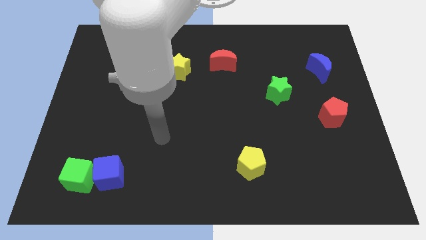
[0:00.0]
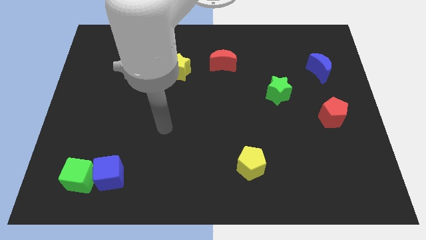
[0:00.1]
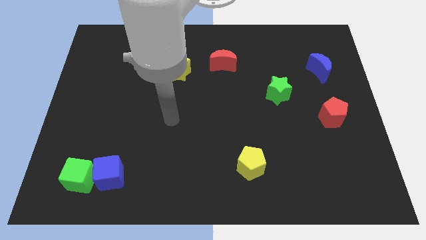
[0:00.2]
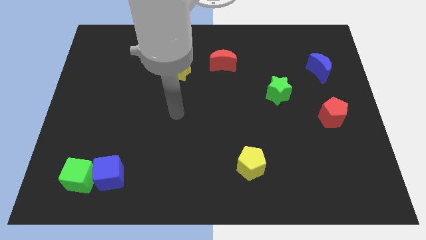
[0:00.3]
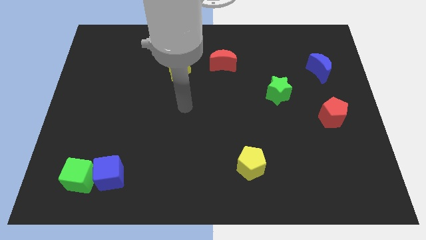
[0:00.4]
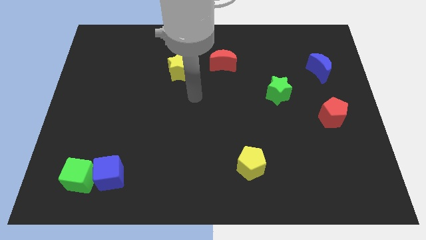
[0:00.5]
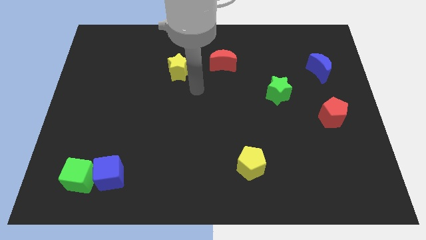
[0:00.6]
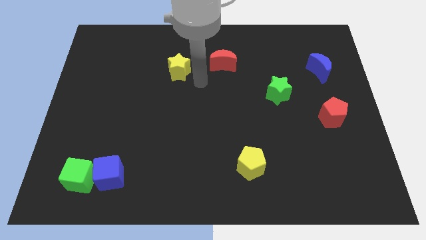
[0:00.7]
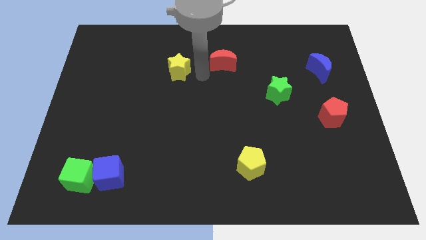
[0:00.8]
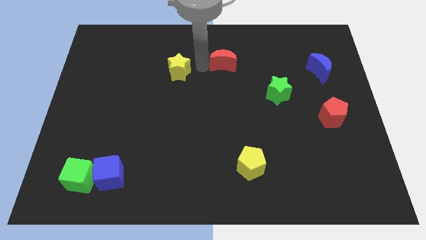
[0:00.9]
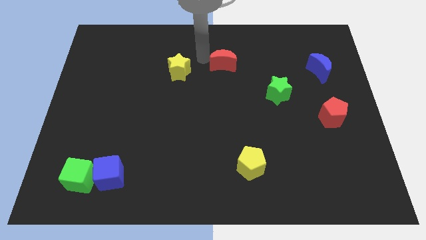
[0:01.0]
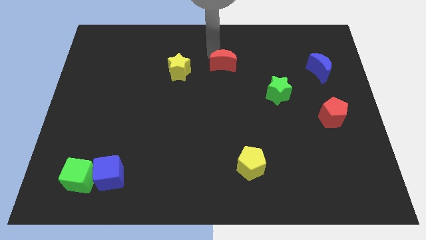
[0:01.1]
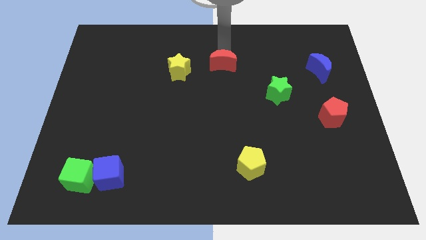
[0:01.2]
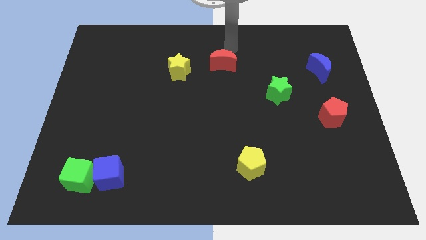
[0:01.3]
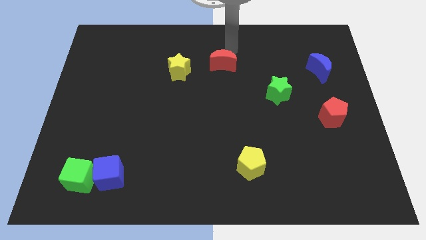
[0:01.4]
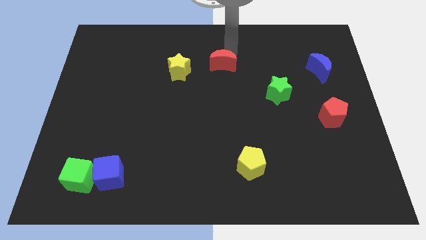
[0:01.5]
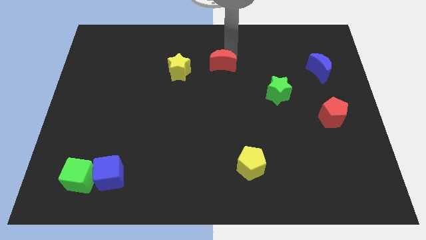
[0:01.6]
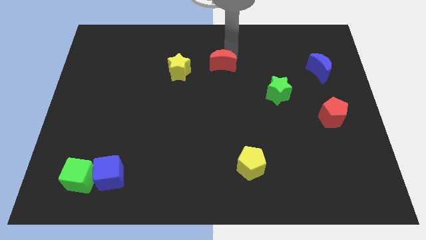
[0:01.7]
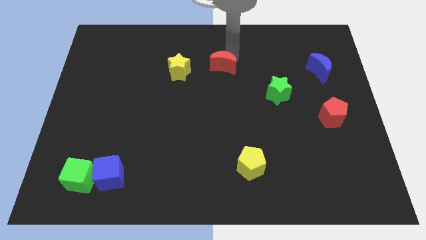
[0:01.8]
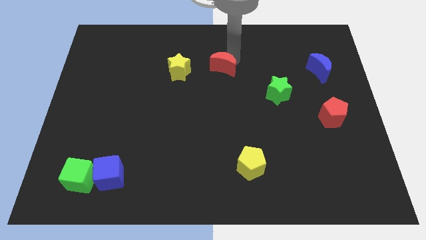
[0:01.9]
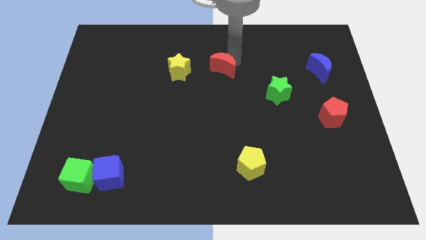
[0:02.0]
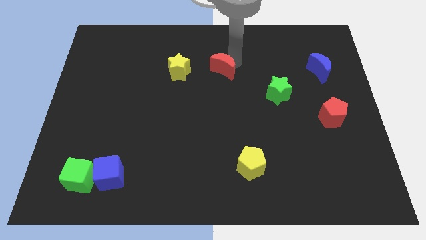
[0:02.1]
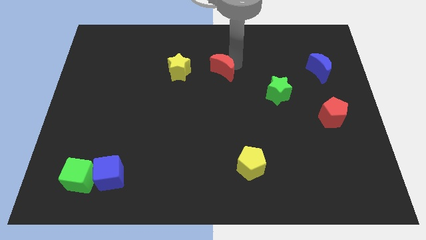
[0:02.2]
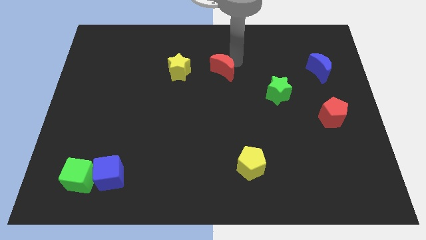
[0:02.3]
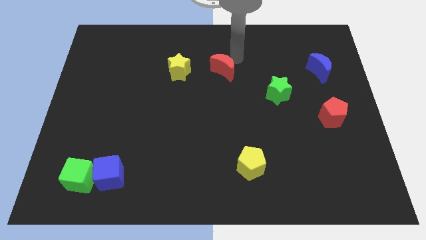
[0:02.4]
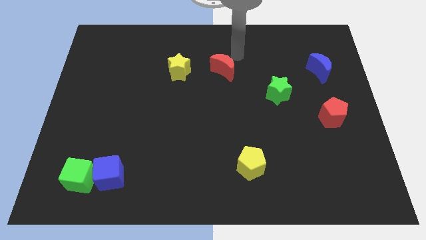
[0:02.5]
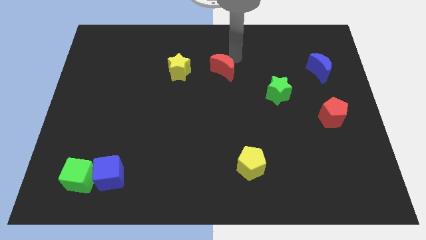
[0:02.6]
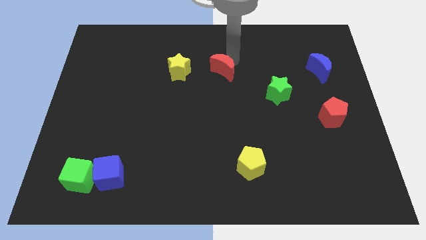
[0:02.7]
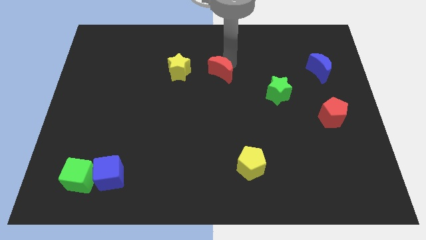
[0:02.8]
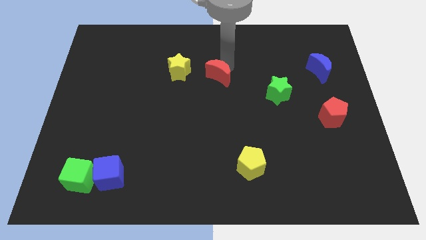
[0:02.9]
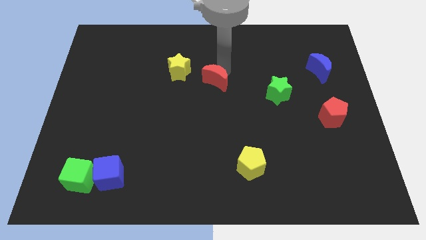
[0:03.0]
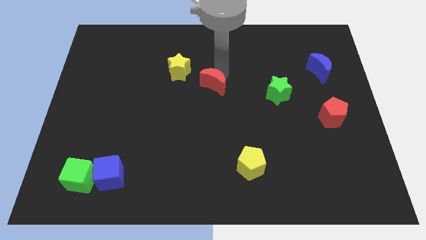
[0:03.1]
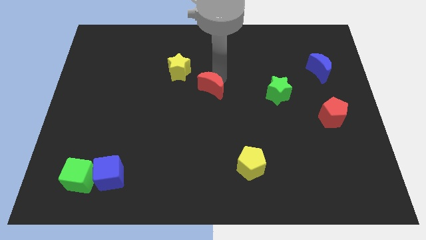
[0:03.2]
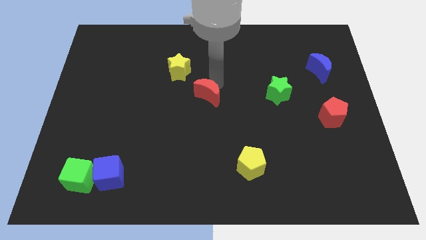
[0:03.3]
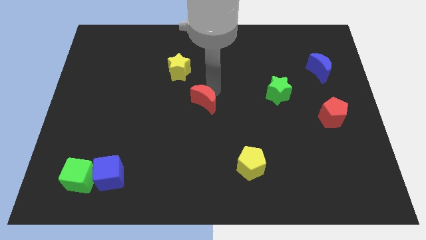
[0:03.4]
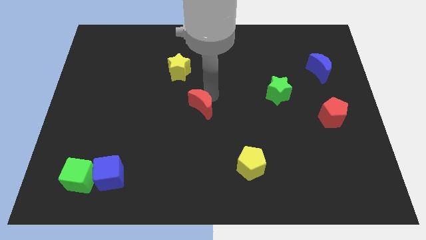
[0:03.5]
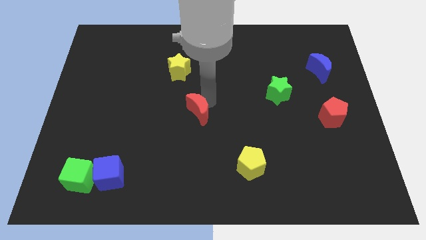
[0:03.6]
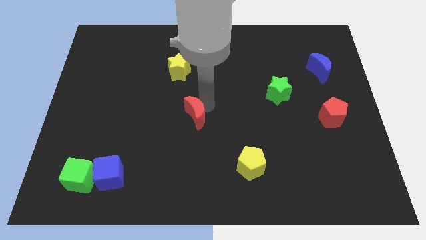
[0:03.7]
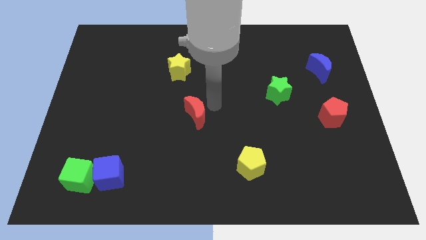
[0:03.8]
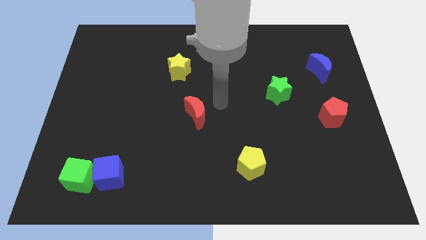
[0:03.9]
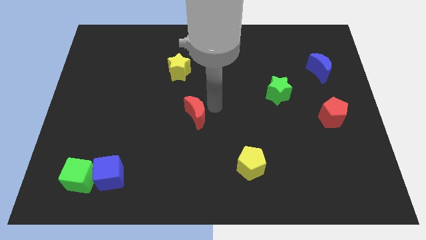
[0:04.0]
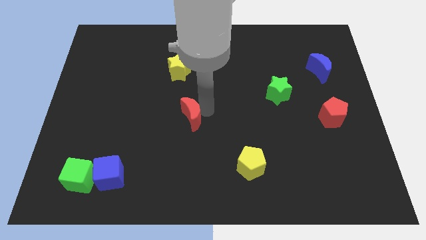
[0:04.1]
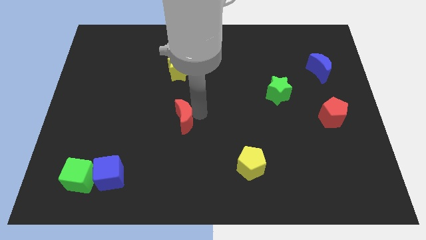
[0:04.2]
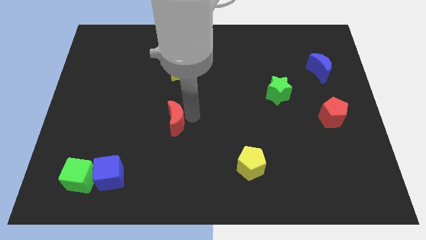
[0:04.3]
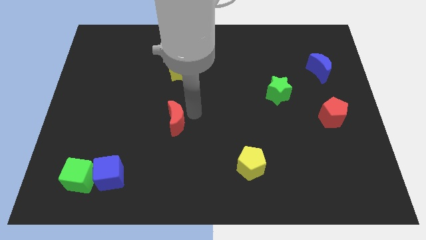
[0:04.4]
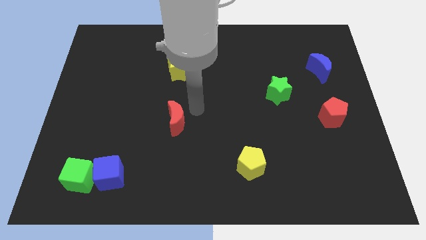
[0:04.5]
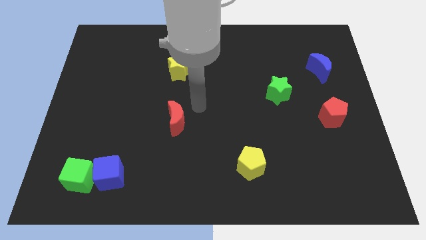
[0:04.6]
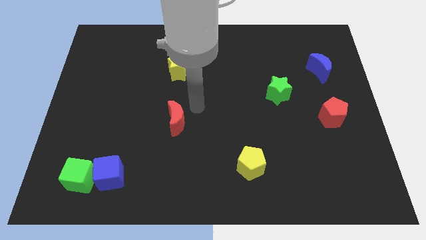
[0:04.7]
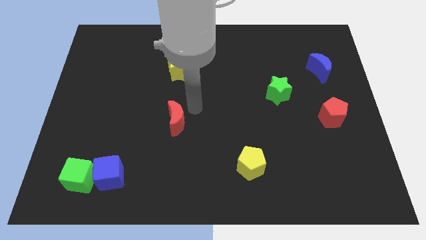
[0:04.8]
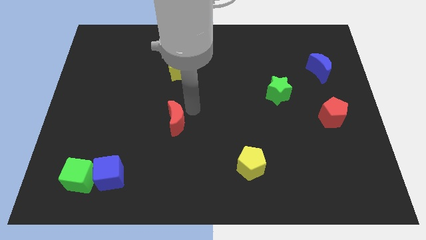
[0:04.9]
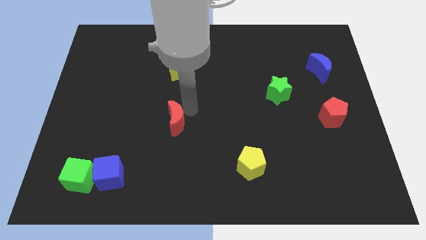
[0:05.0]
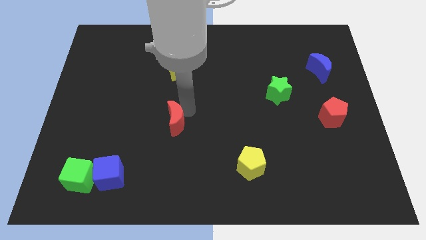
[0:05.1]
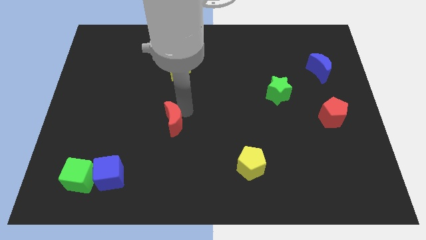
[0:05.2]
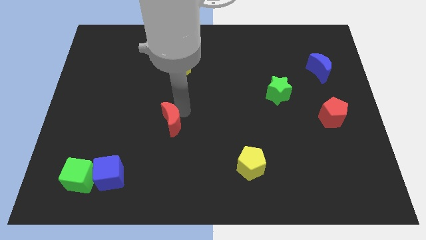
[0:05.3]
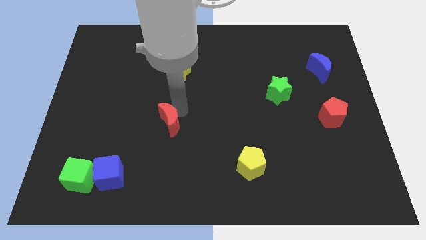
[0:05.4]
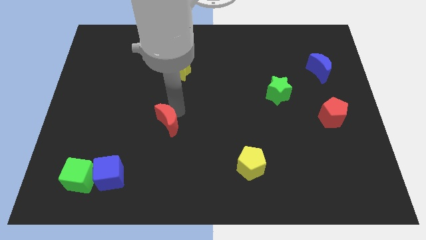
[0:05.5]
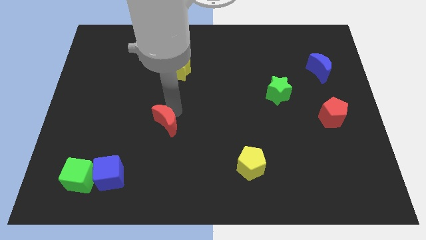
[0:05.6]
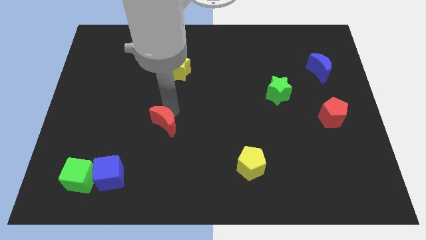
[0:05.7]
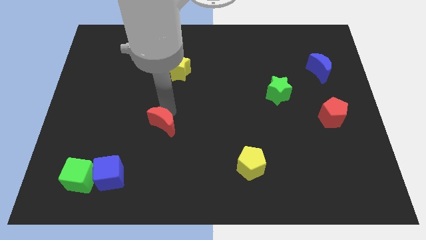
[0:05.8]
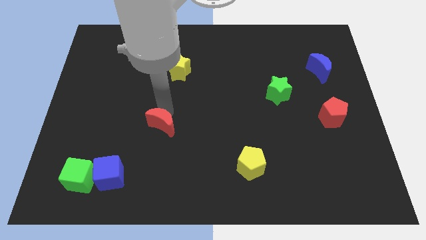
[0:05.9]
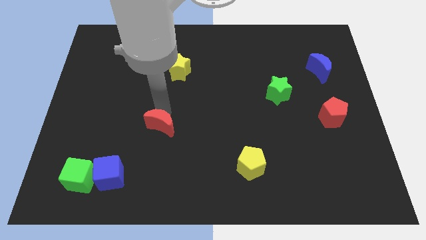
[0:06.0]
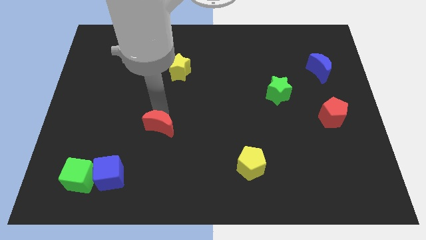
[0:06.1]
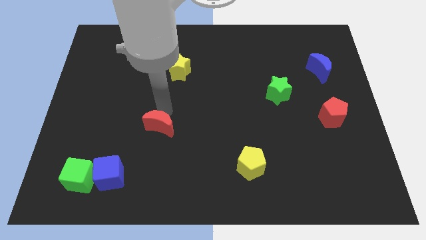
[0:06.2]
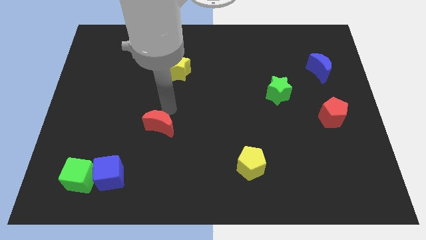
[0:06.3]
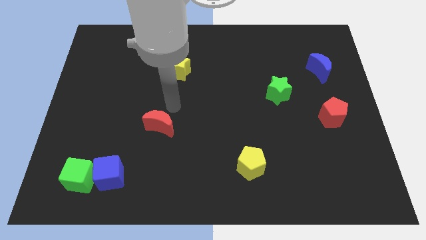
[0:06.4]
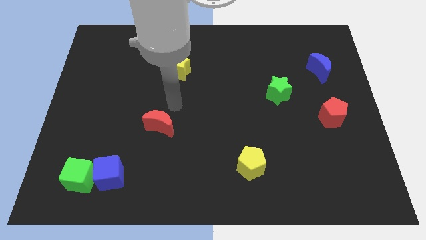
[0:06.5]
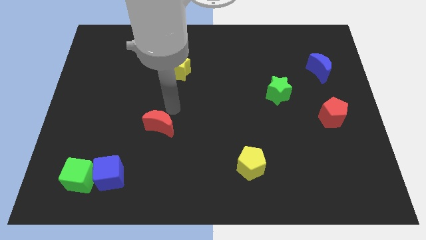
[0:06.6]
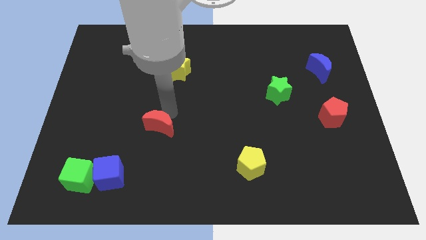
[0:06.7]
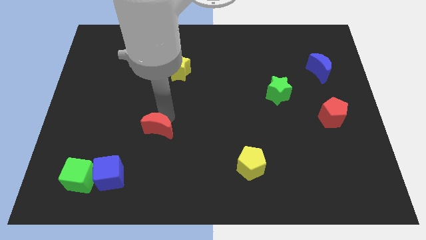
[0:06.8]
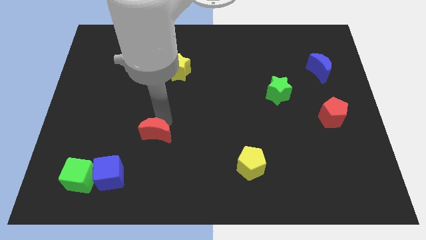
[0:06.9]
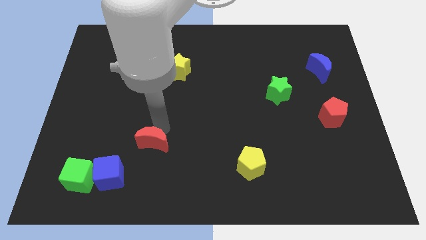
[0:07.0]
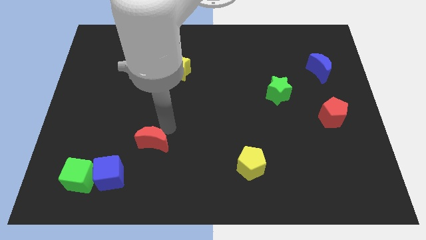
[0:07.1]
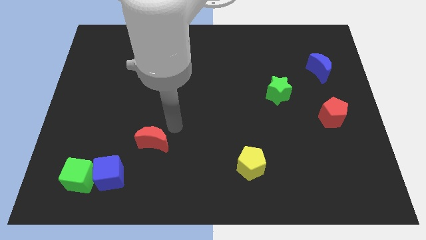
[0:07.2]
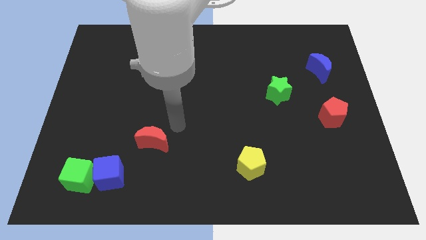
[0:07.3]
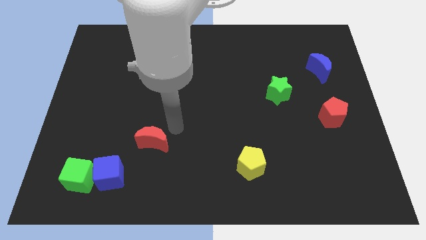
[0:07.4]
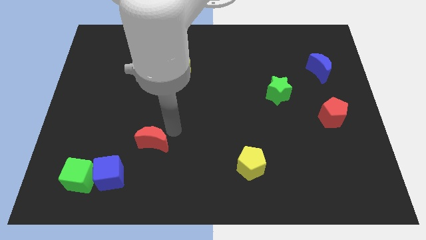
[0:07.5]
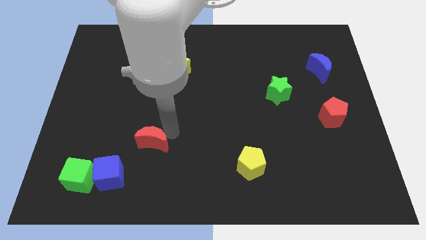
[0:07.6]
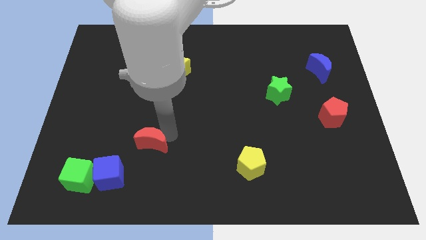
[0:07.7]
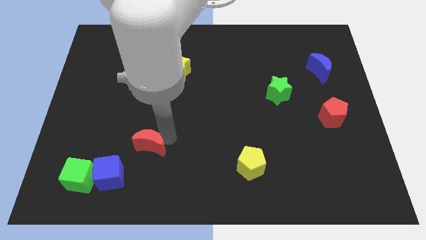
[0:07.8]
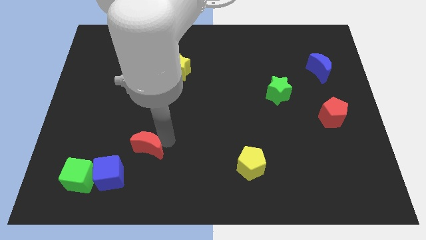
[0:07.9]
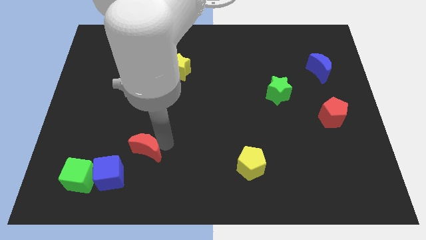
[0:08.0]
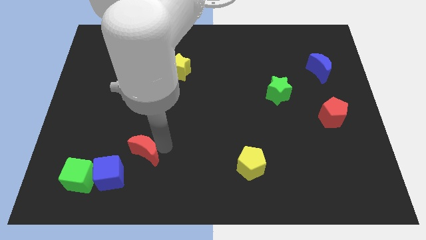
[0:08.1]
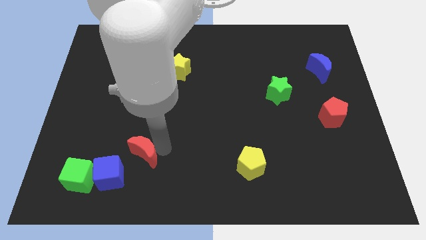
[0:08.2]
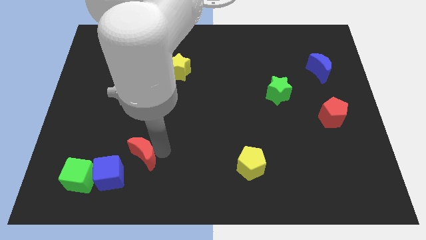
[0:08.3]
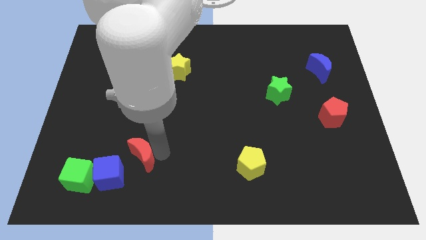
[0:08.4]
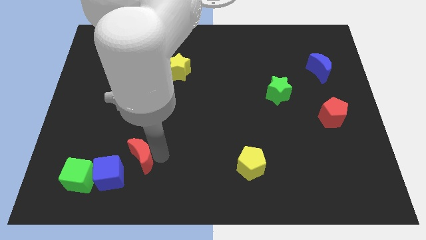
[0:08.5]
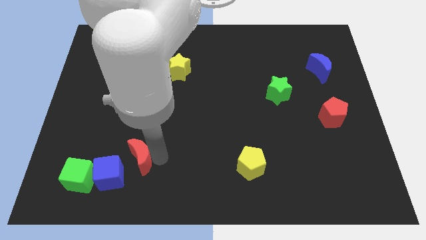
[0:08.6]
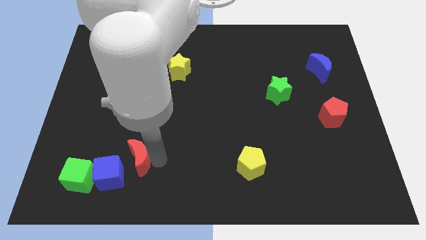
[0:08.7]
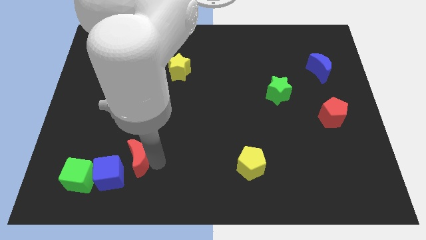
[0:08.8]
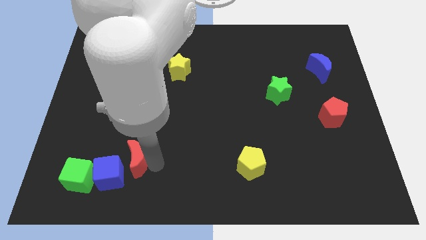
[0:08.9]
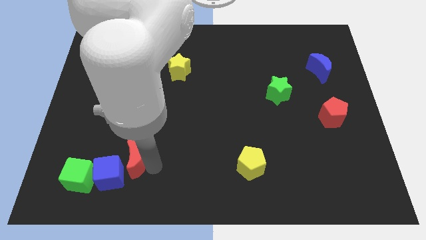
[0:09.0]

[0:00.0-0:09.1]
slide the red moon towards the blue cube
